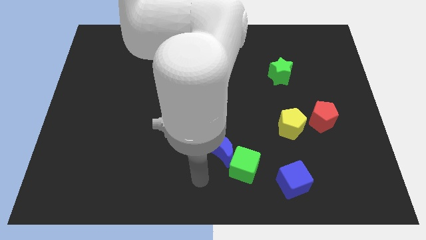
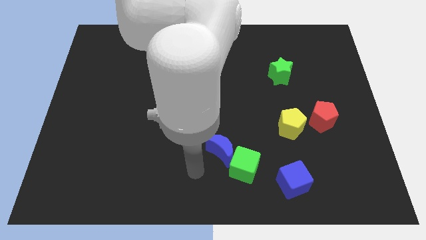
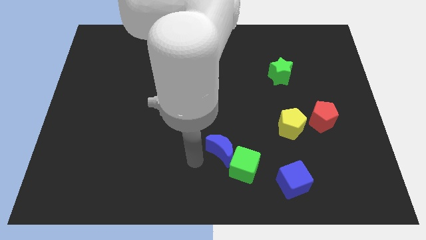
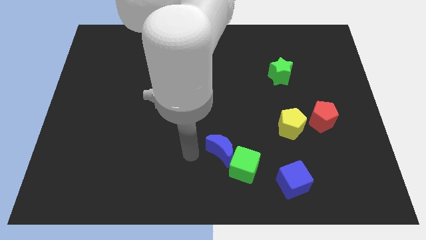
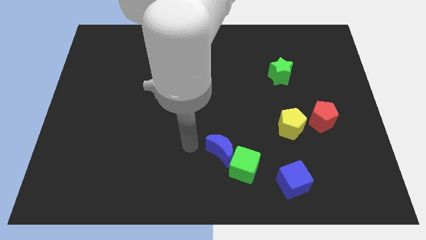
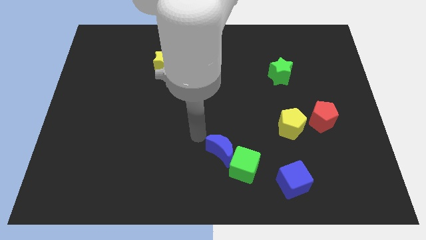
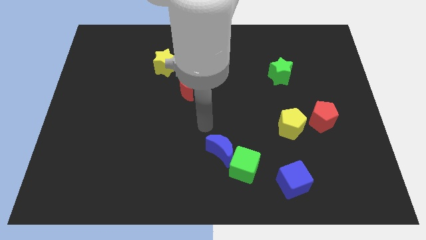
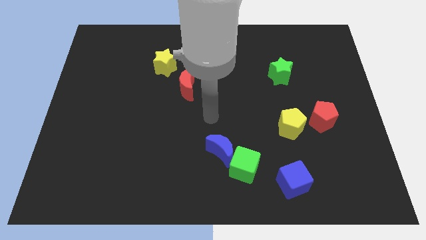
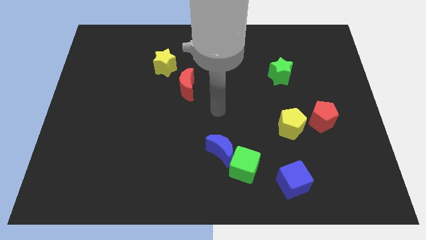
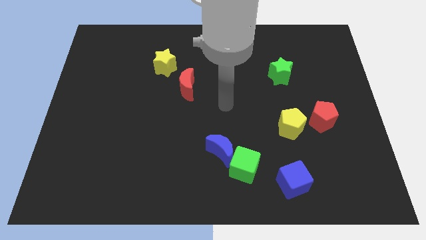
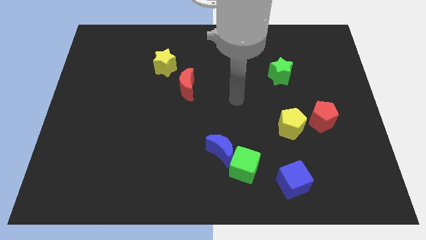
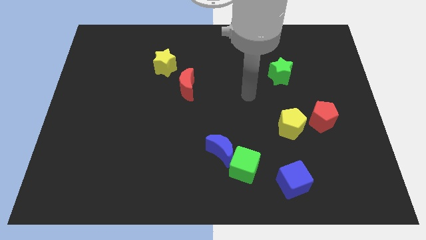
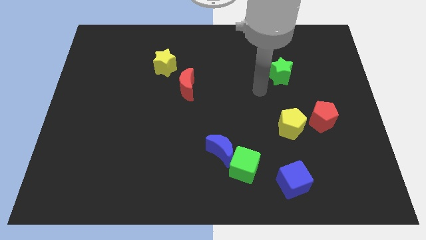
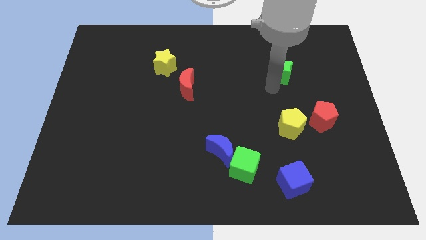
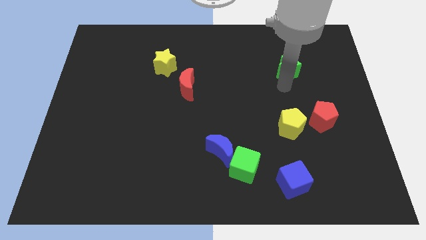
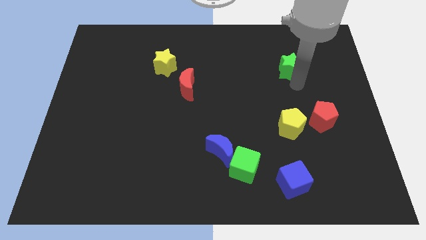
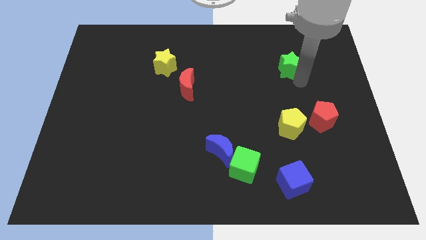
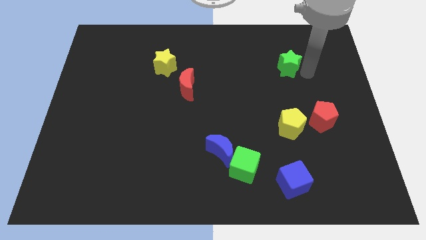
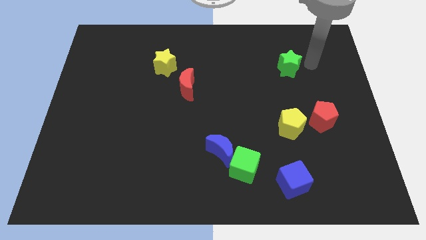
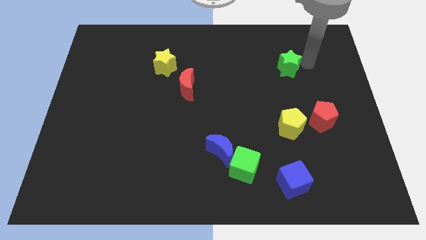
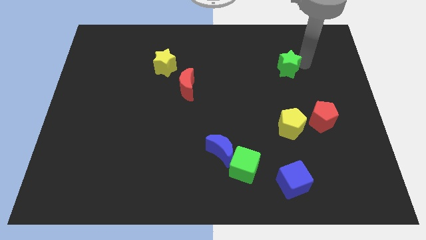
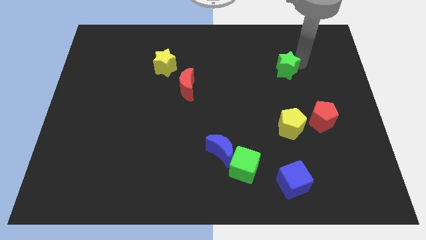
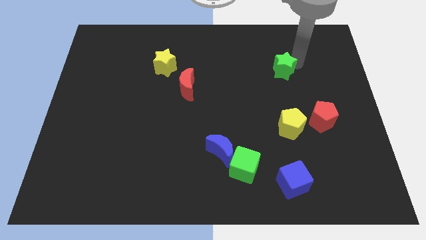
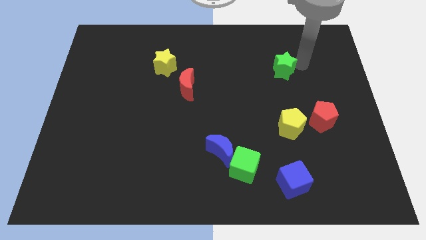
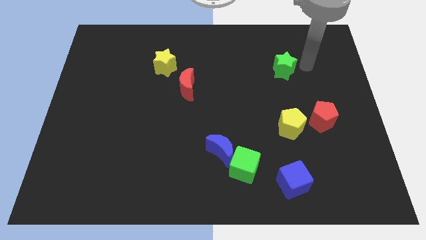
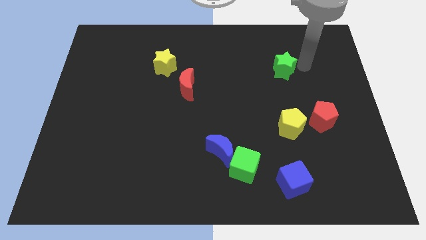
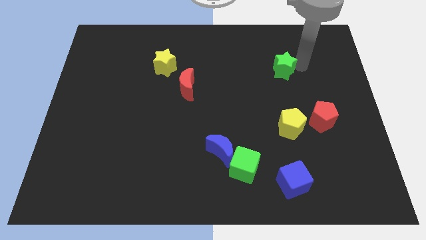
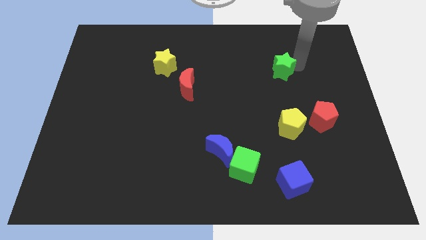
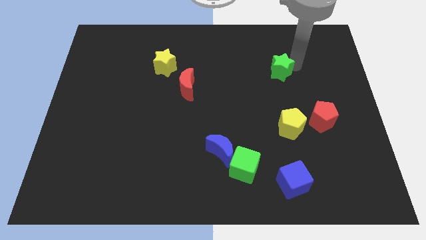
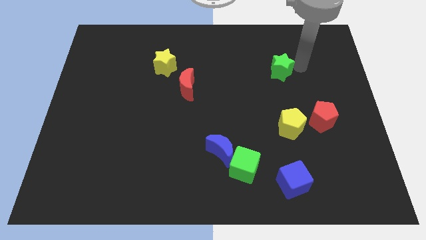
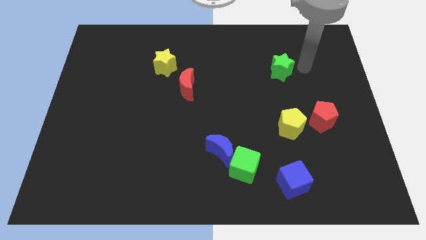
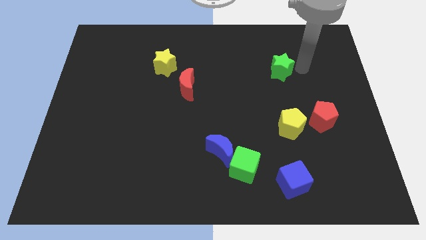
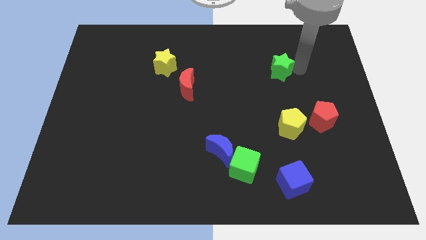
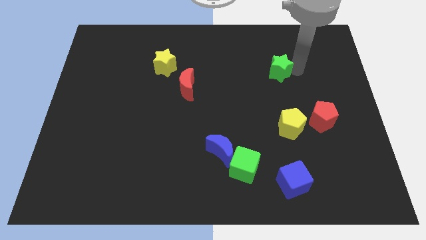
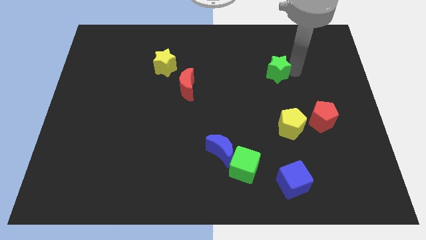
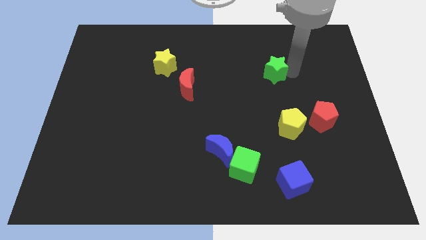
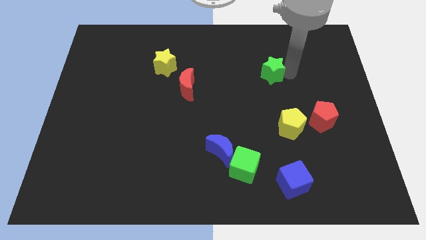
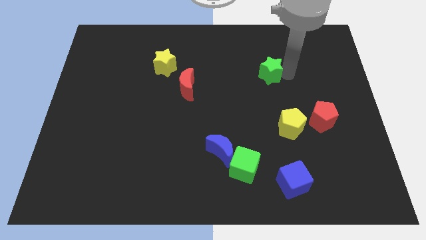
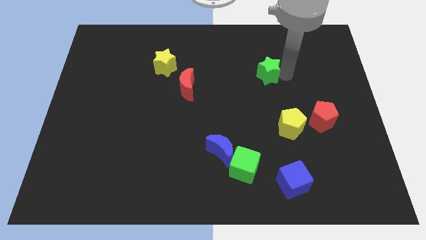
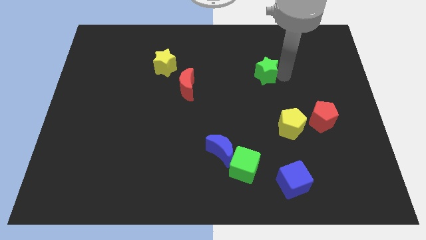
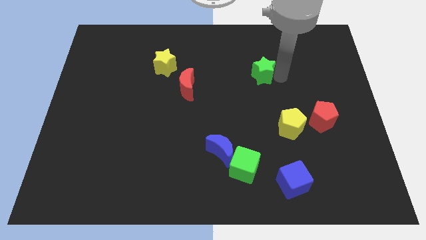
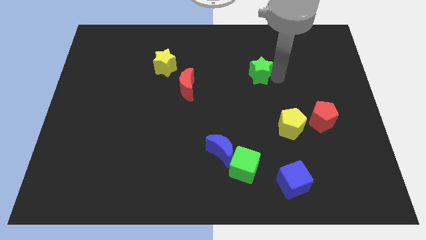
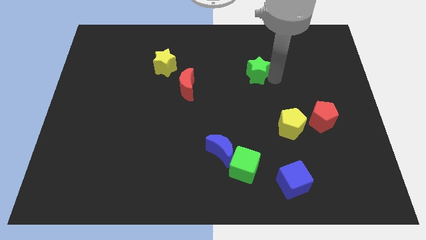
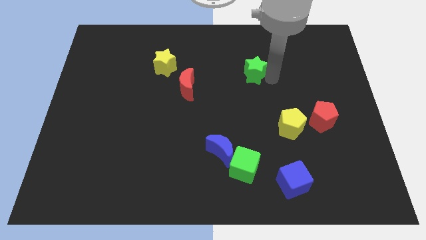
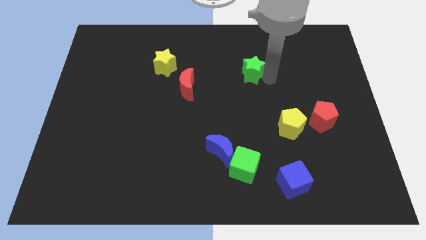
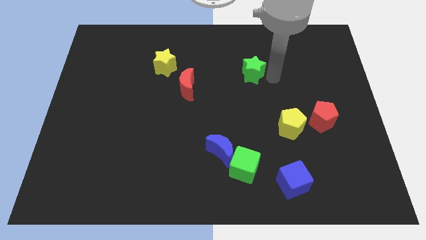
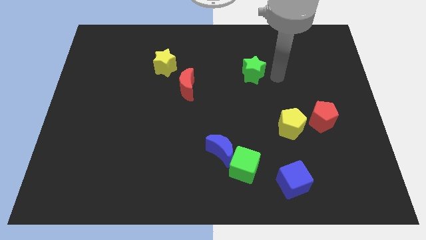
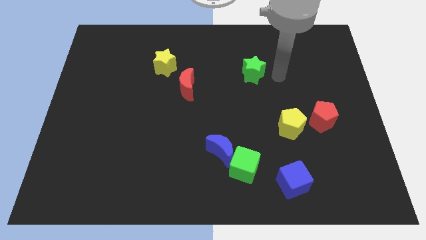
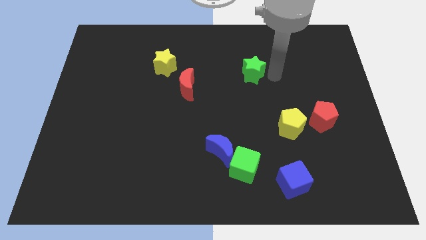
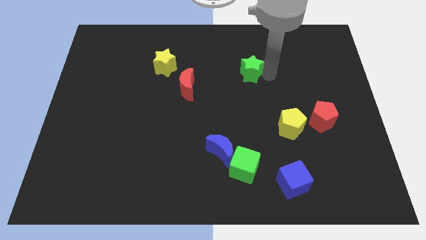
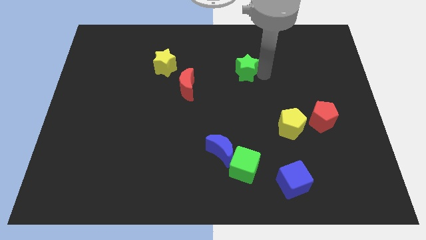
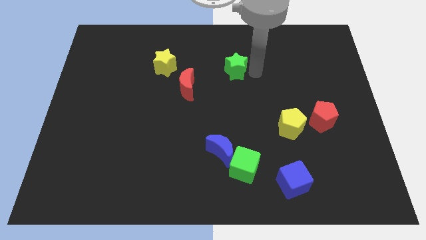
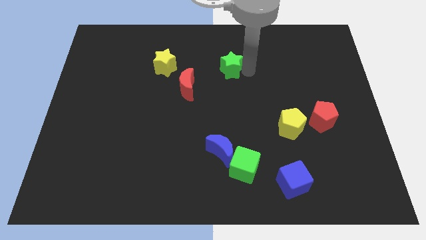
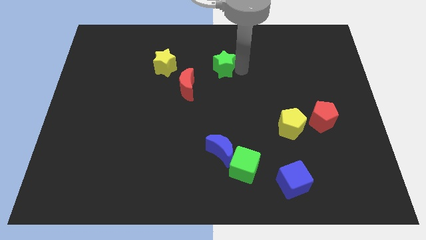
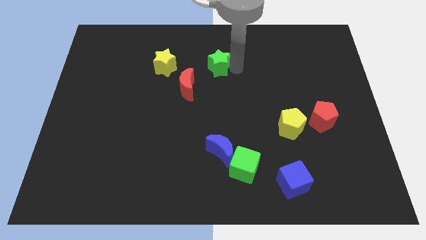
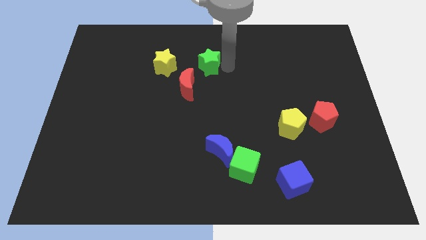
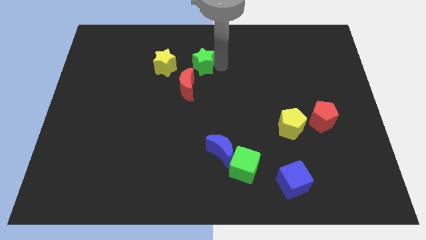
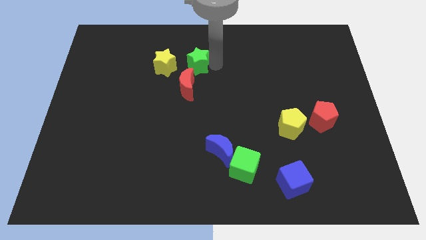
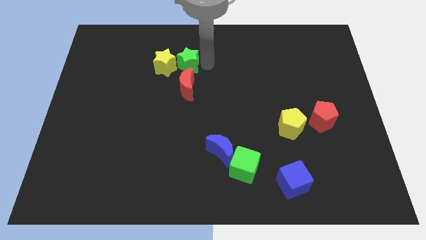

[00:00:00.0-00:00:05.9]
slide the green star to the yellow star

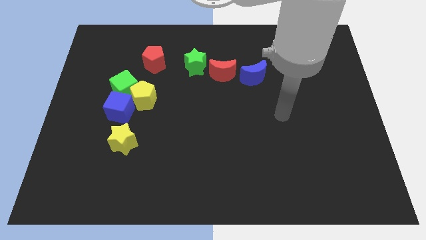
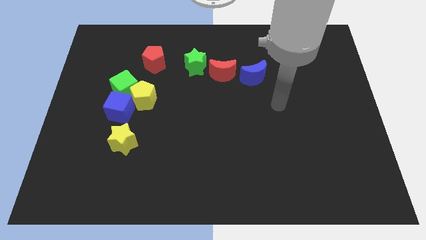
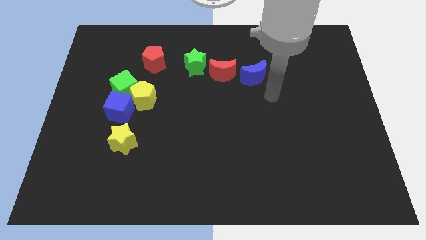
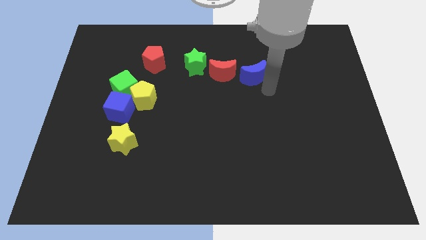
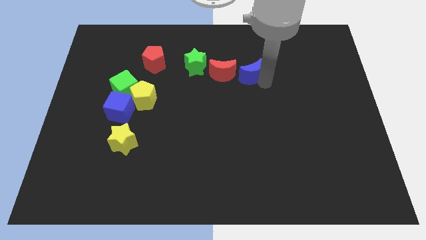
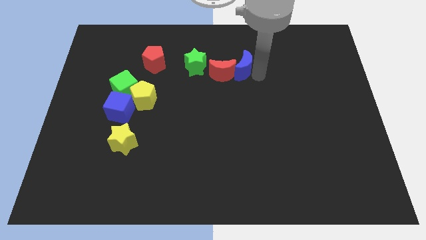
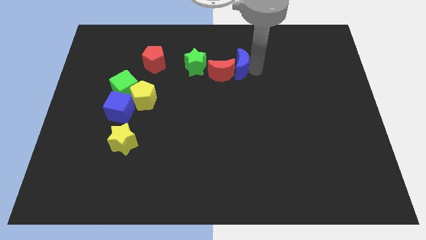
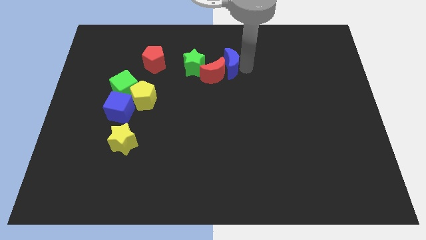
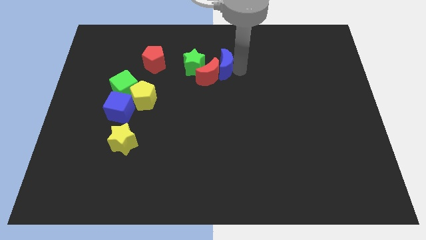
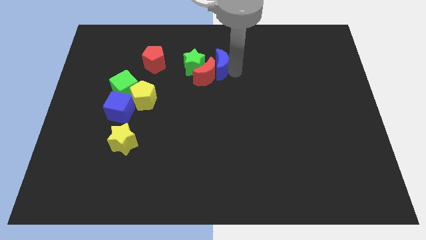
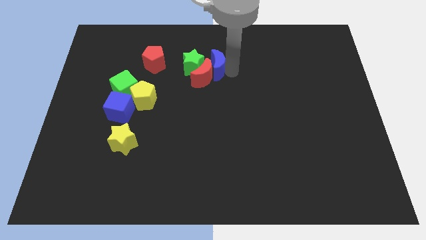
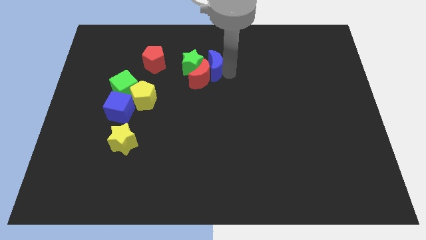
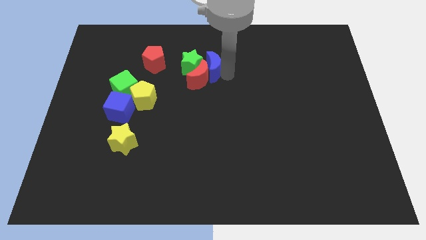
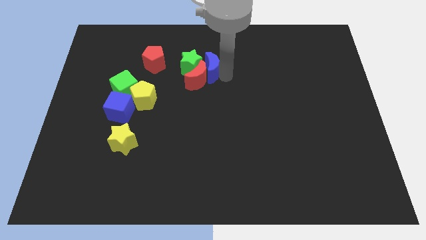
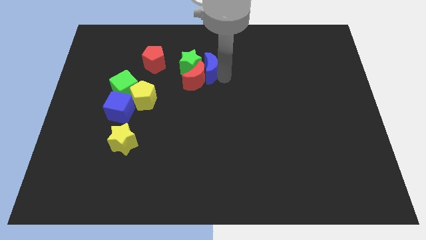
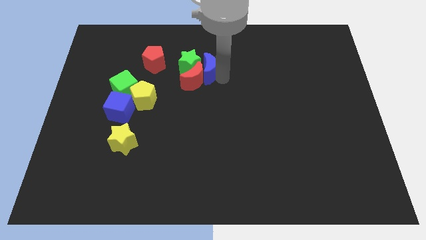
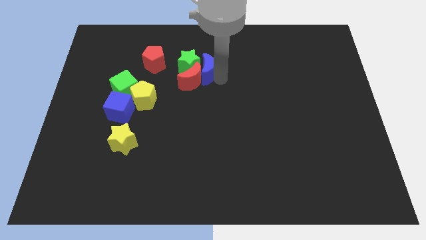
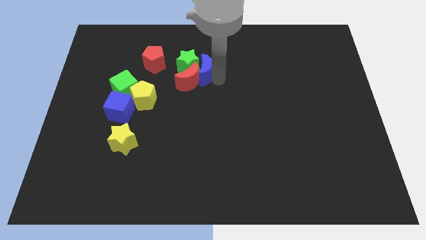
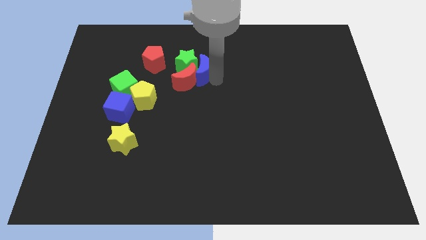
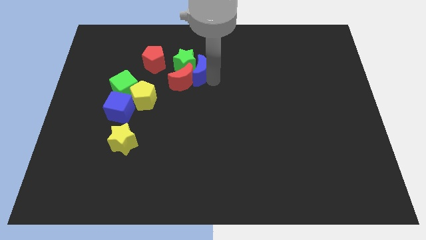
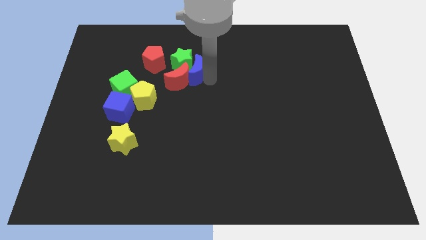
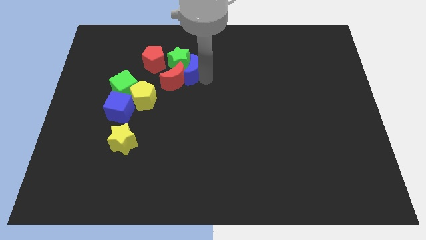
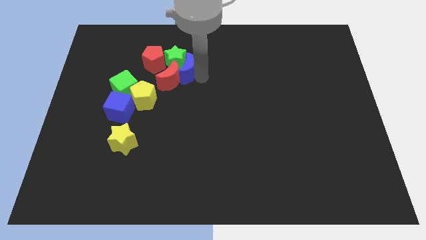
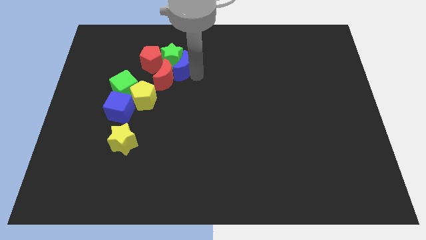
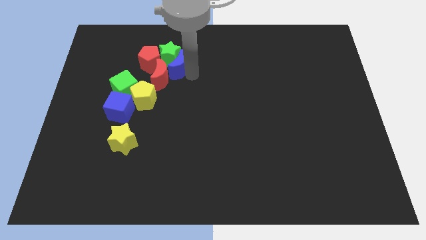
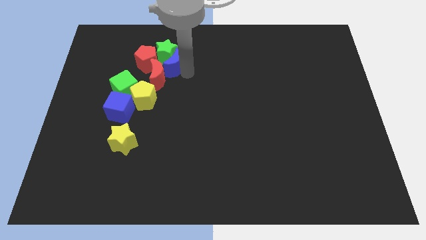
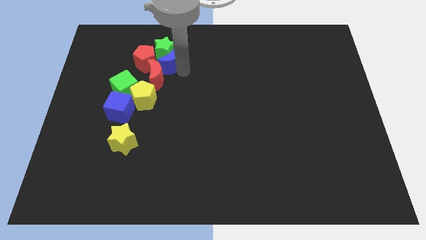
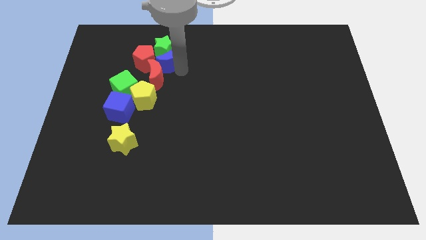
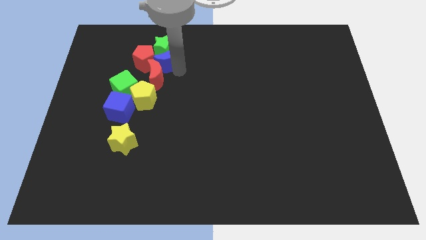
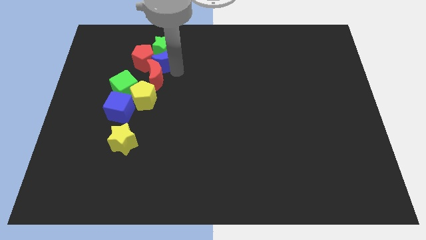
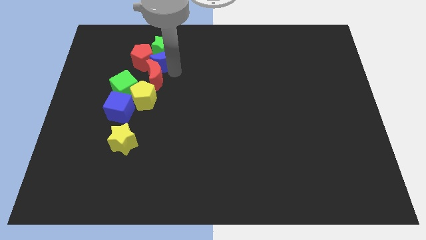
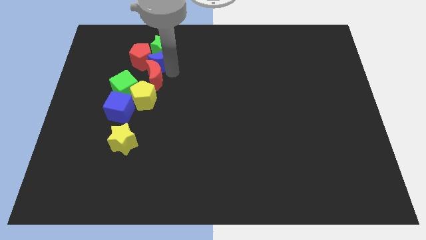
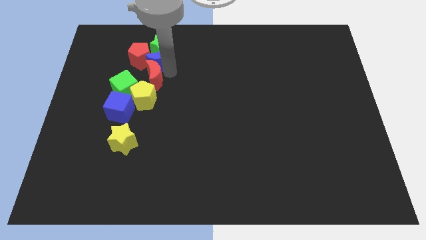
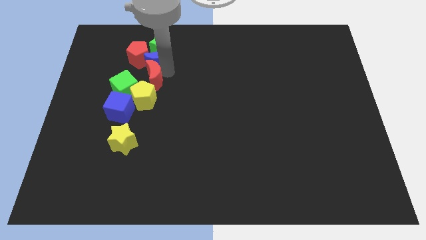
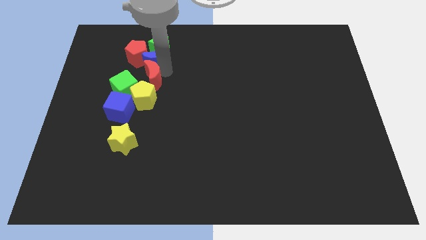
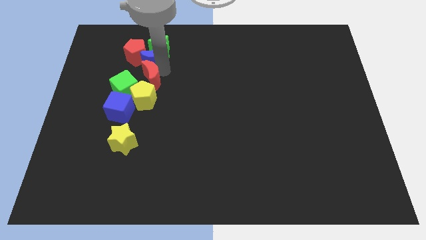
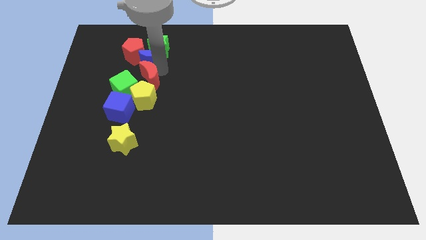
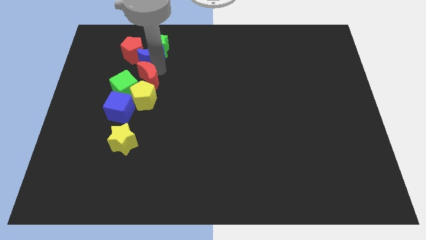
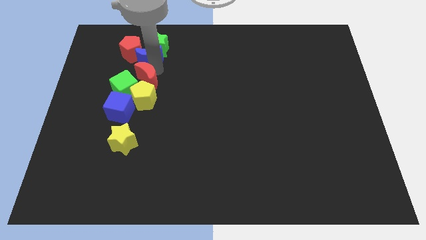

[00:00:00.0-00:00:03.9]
slide the red moon towards the green cube
